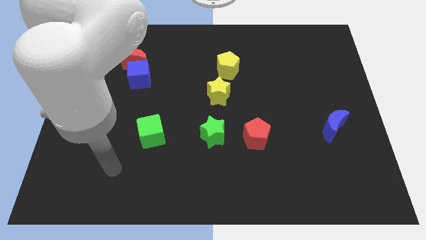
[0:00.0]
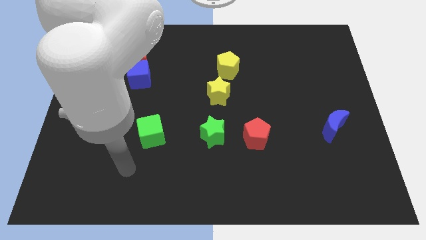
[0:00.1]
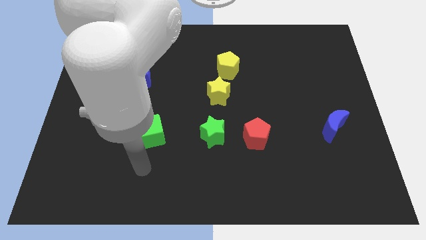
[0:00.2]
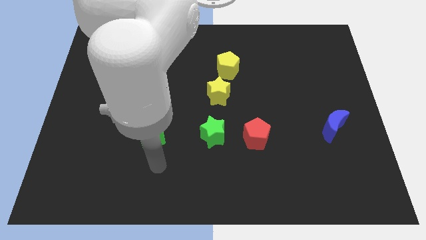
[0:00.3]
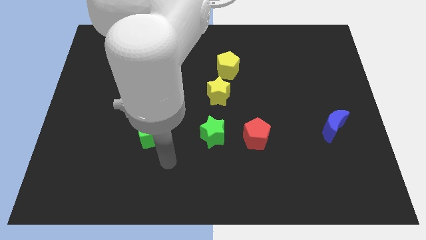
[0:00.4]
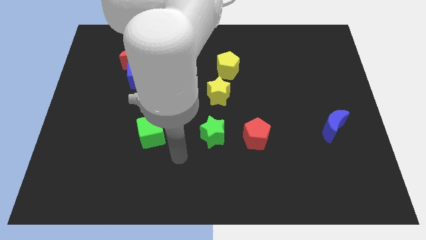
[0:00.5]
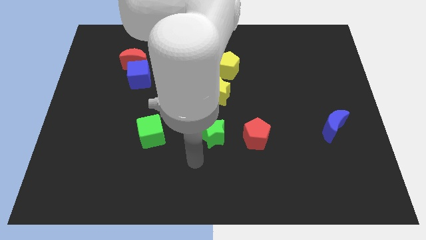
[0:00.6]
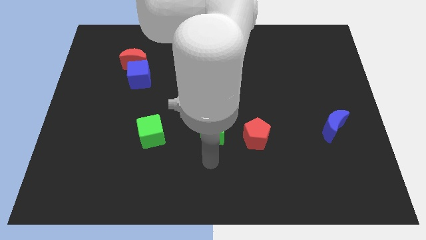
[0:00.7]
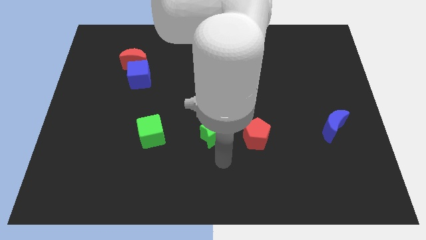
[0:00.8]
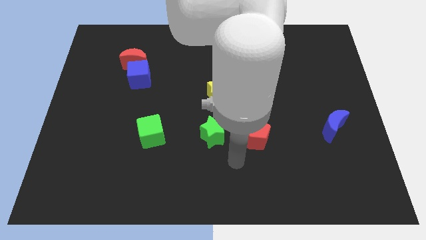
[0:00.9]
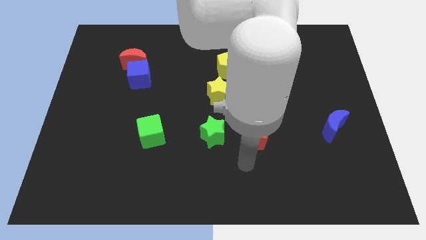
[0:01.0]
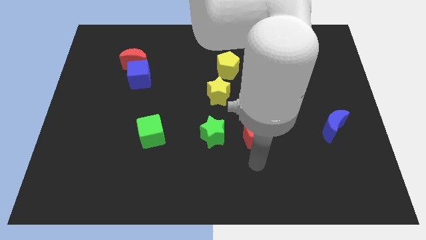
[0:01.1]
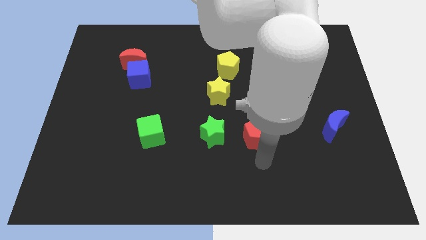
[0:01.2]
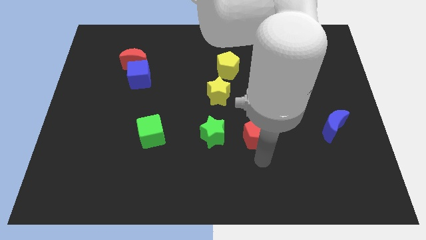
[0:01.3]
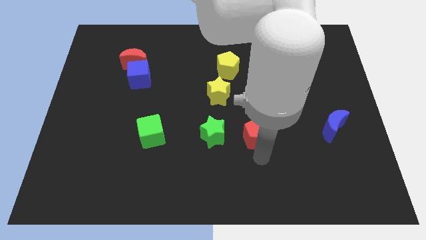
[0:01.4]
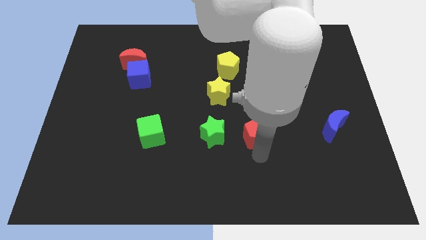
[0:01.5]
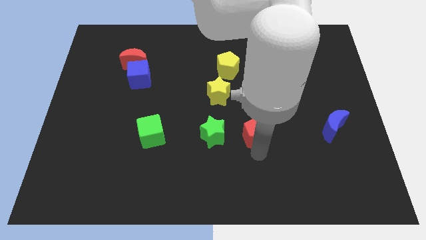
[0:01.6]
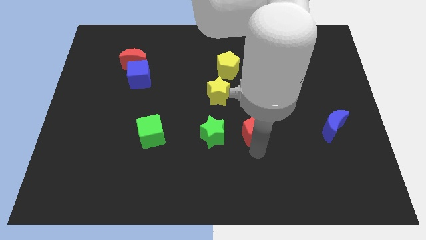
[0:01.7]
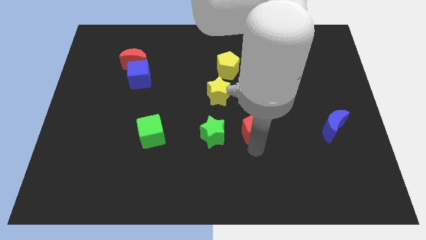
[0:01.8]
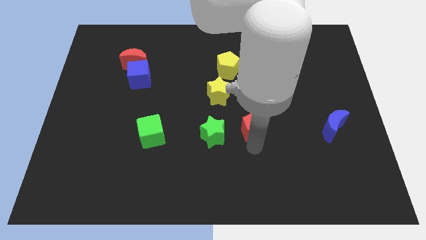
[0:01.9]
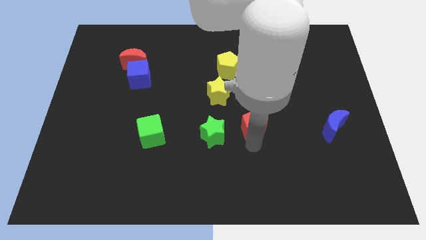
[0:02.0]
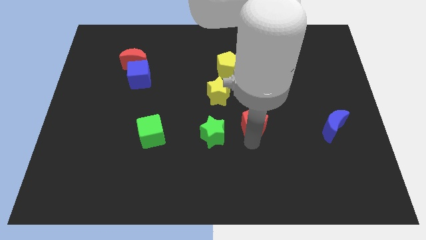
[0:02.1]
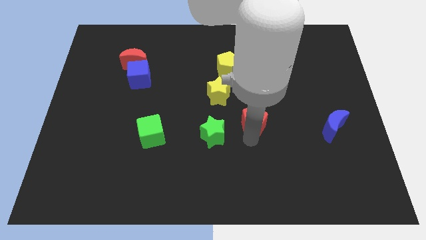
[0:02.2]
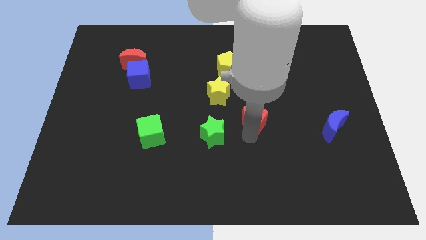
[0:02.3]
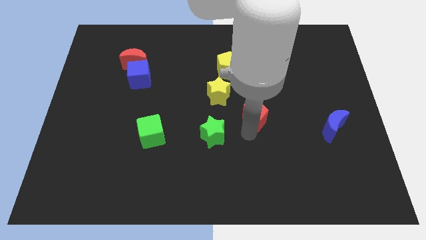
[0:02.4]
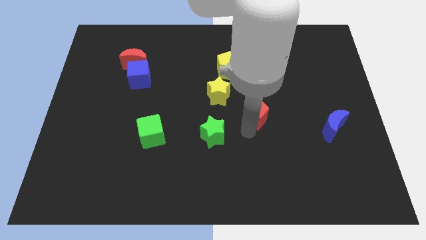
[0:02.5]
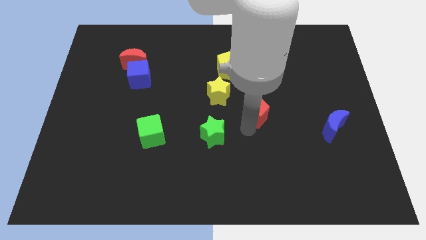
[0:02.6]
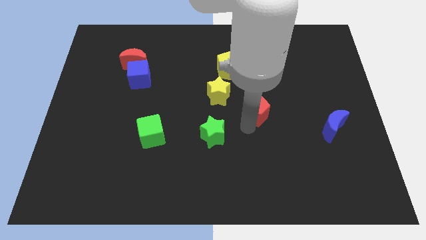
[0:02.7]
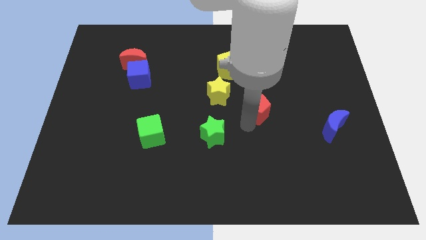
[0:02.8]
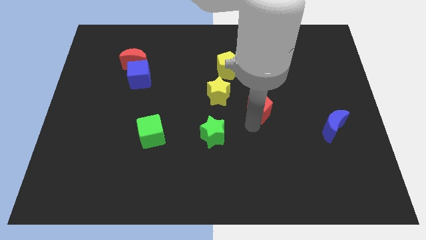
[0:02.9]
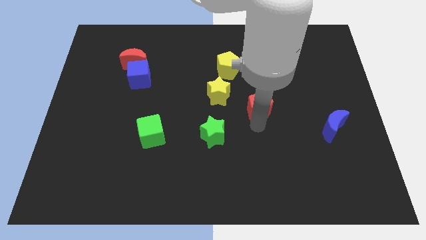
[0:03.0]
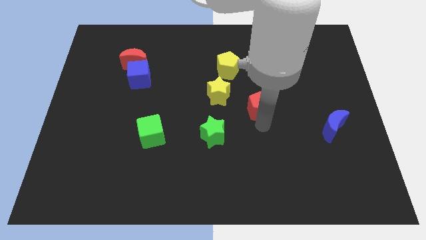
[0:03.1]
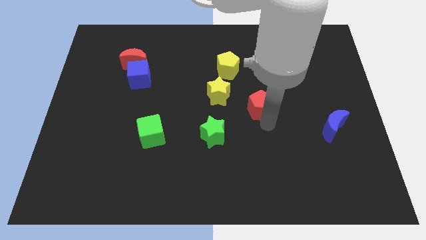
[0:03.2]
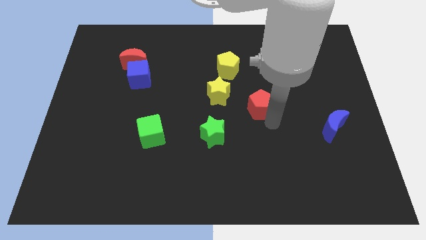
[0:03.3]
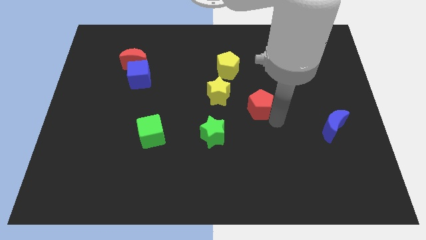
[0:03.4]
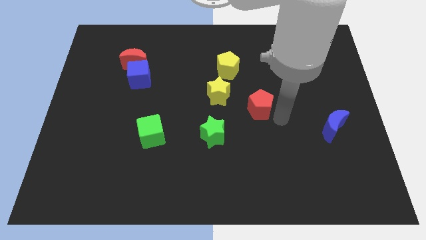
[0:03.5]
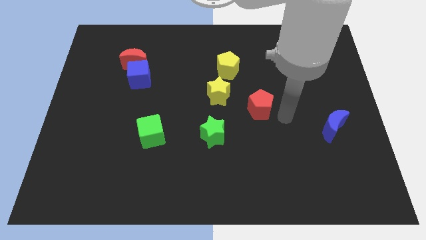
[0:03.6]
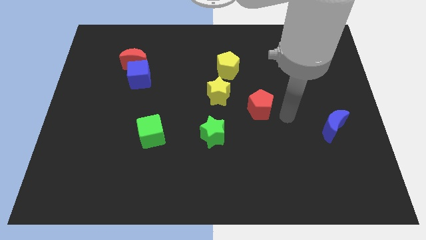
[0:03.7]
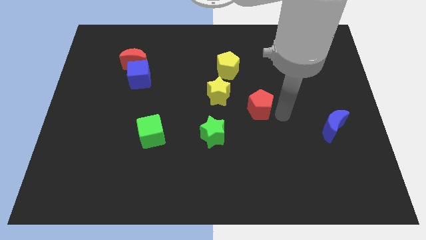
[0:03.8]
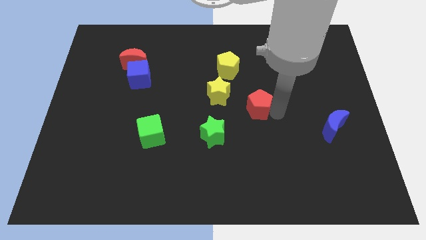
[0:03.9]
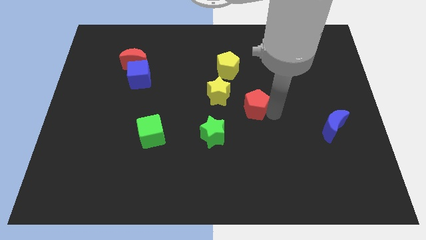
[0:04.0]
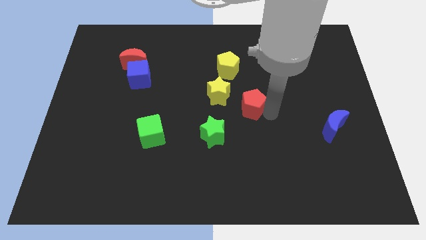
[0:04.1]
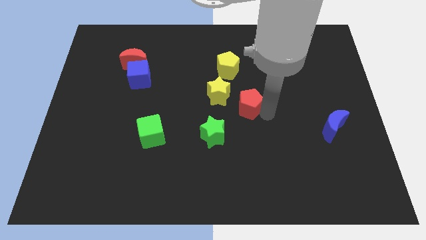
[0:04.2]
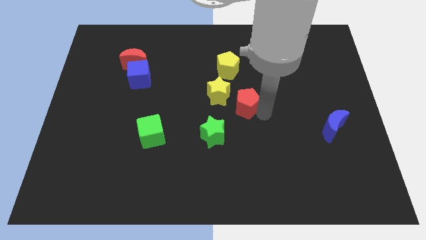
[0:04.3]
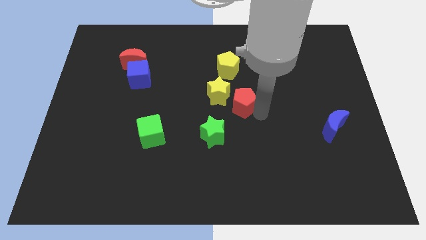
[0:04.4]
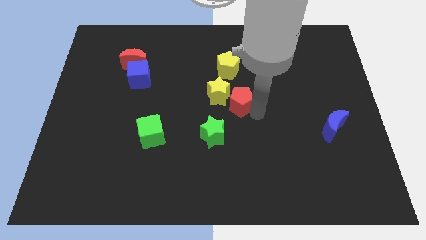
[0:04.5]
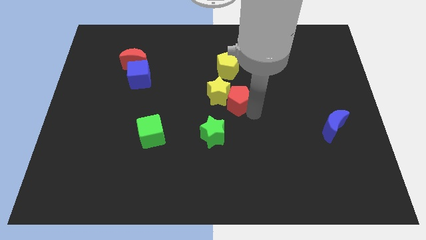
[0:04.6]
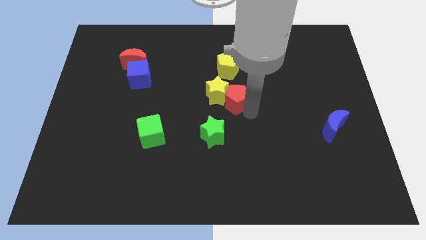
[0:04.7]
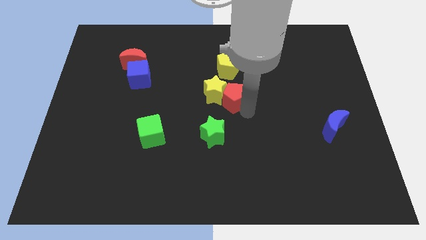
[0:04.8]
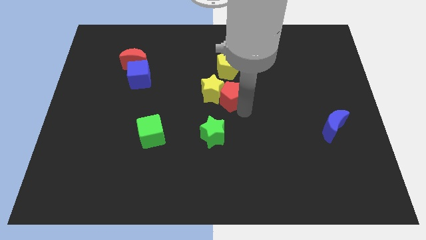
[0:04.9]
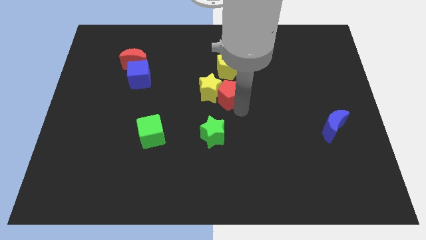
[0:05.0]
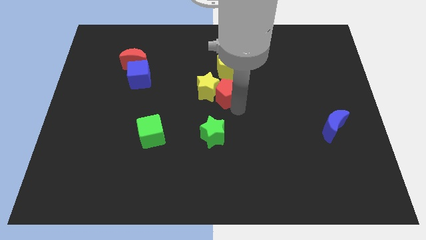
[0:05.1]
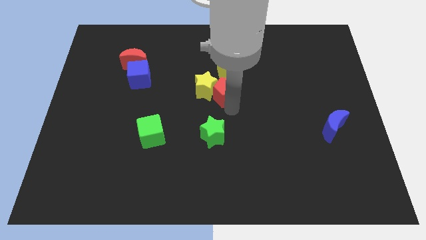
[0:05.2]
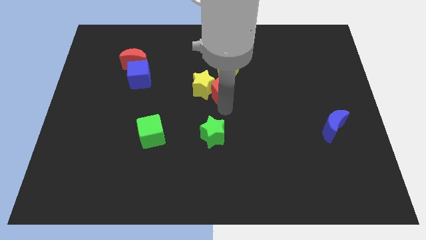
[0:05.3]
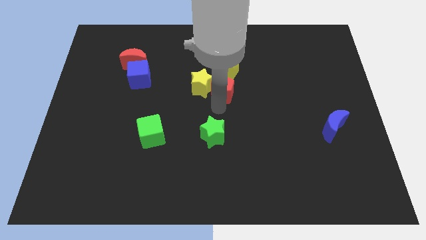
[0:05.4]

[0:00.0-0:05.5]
slide the red pentagon diagonally down and to the left of the yellow pentagon

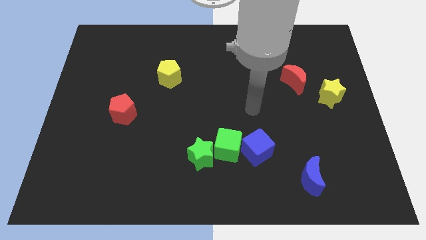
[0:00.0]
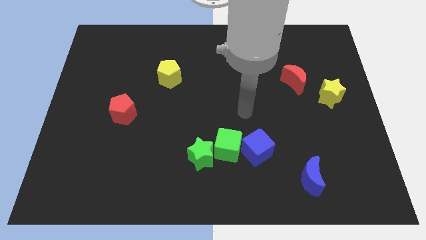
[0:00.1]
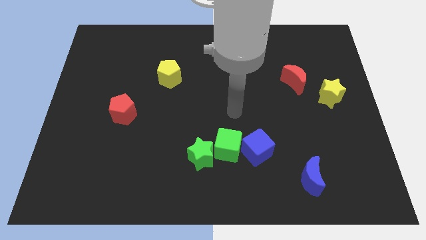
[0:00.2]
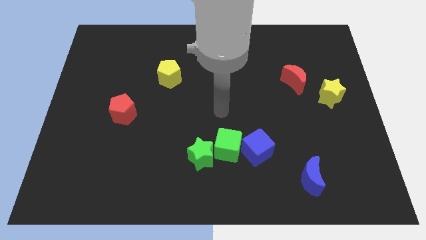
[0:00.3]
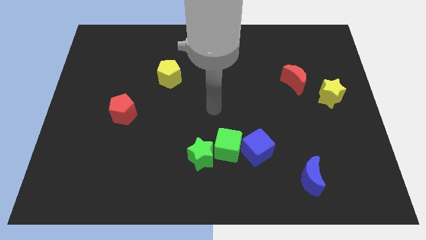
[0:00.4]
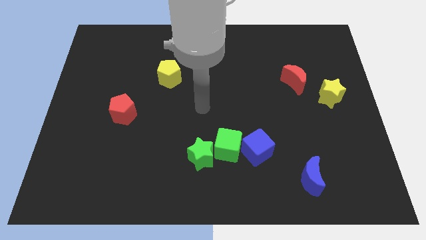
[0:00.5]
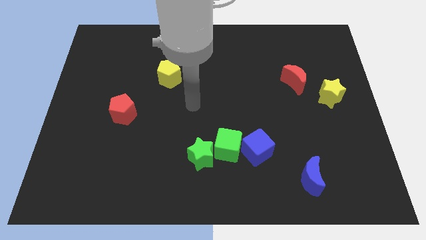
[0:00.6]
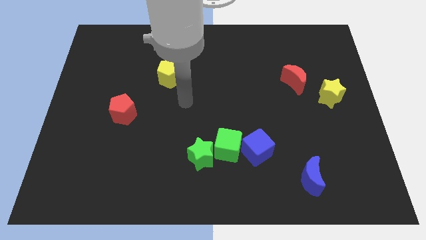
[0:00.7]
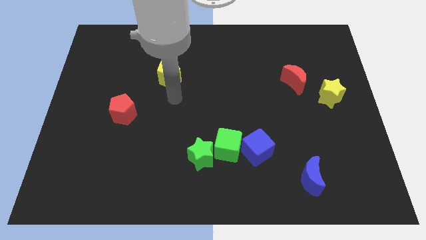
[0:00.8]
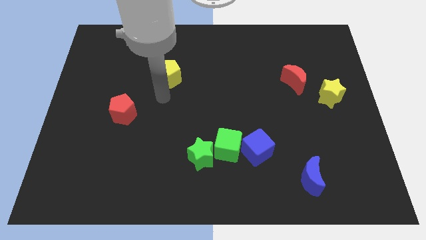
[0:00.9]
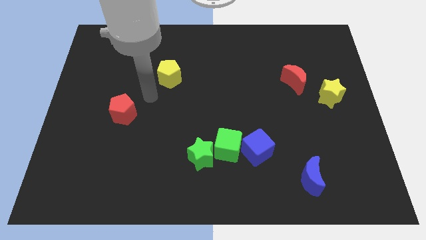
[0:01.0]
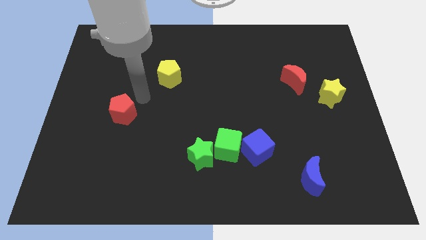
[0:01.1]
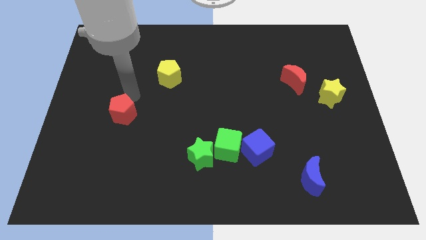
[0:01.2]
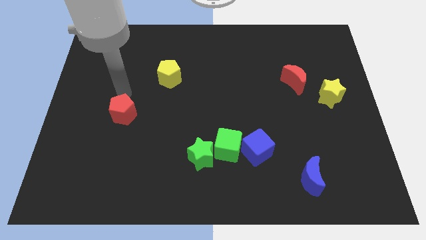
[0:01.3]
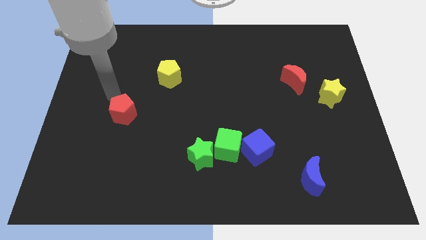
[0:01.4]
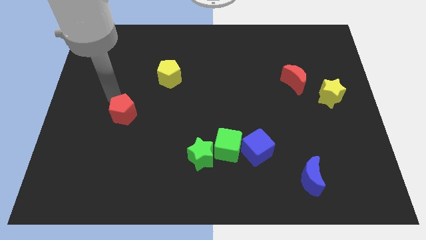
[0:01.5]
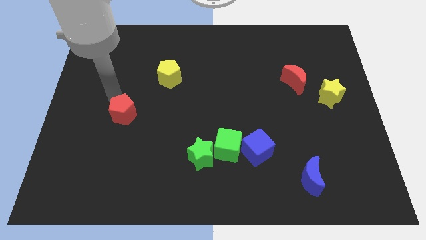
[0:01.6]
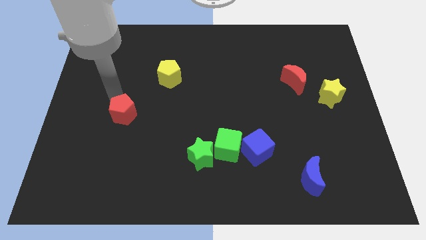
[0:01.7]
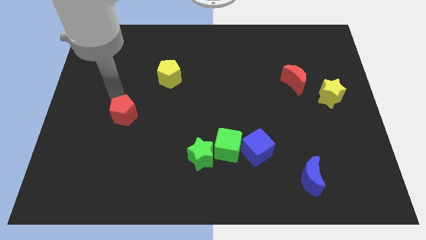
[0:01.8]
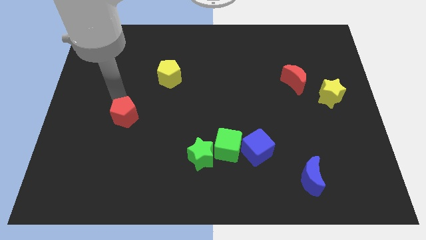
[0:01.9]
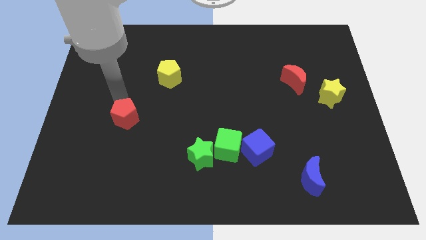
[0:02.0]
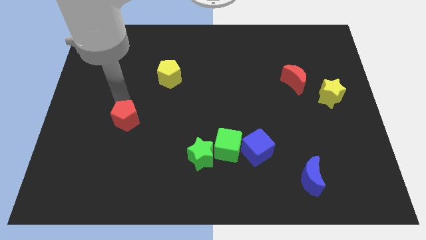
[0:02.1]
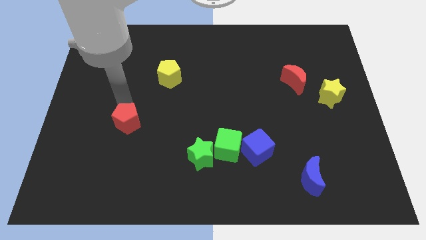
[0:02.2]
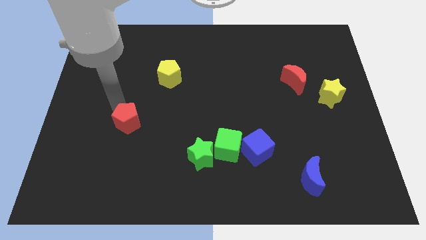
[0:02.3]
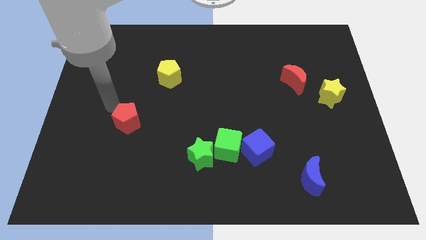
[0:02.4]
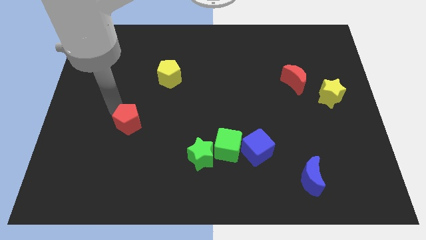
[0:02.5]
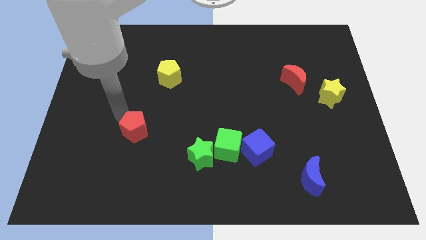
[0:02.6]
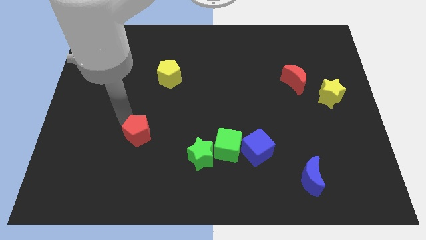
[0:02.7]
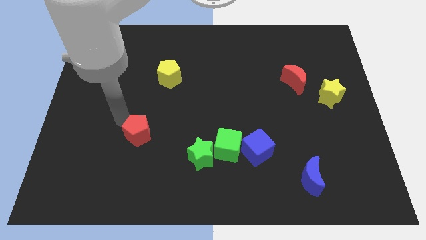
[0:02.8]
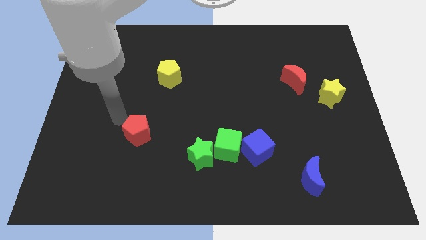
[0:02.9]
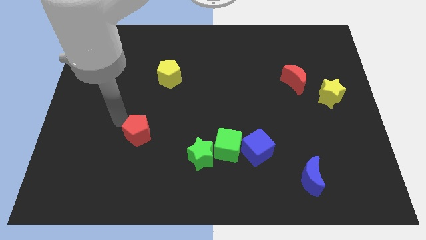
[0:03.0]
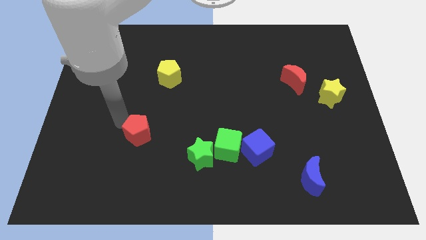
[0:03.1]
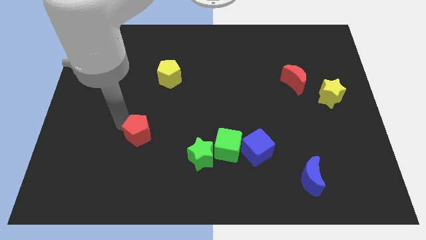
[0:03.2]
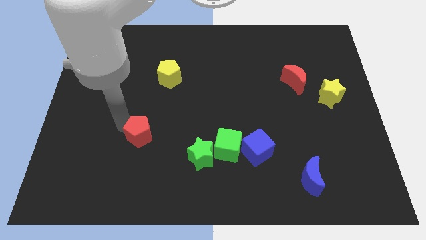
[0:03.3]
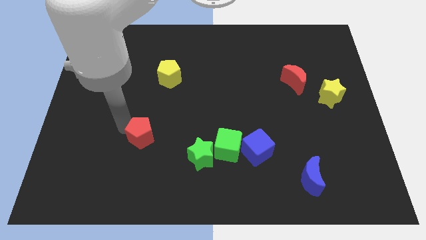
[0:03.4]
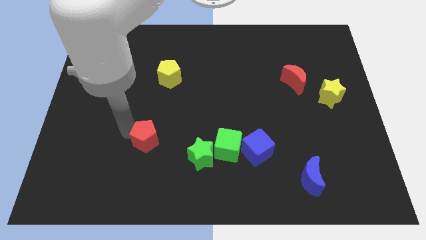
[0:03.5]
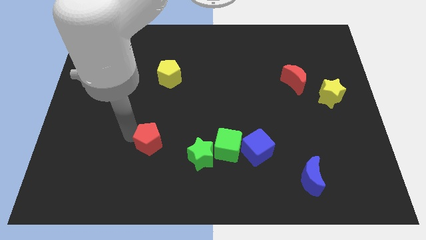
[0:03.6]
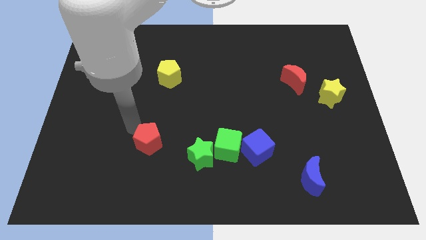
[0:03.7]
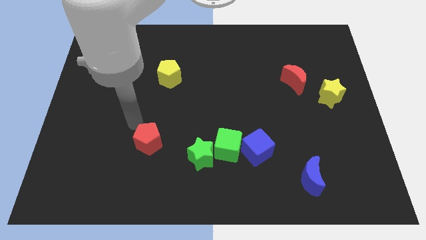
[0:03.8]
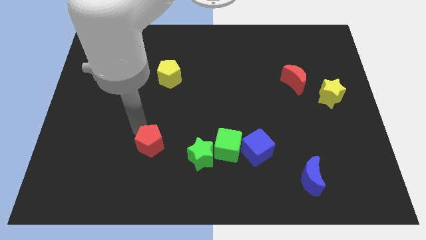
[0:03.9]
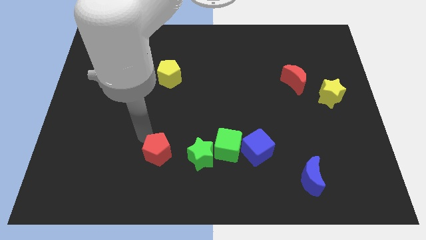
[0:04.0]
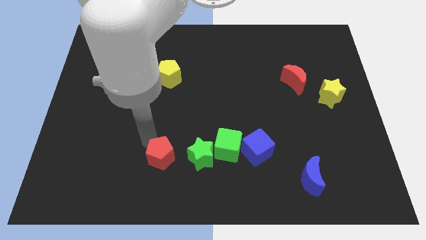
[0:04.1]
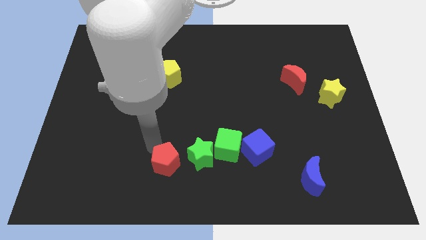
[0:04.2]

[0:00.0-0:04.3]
slide the red pentagon diagonally down and to the left of the green star
